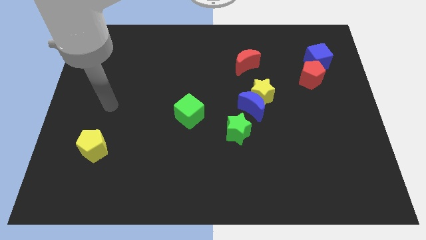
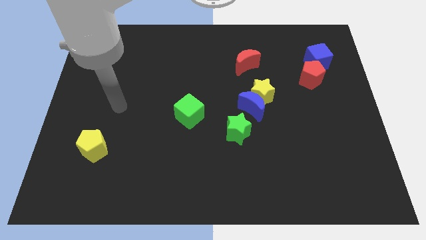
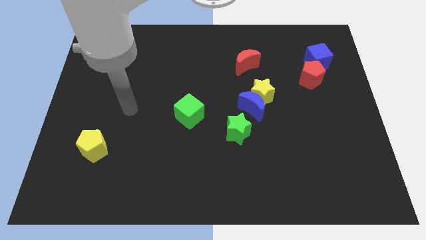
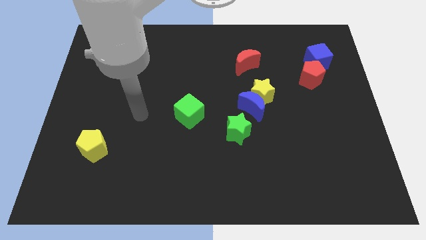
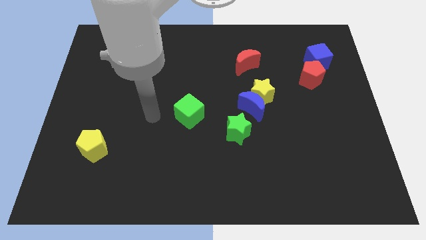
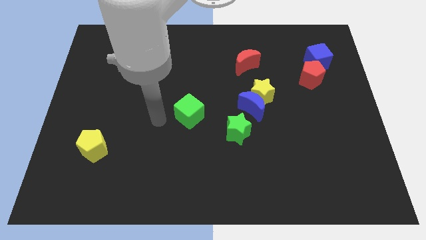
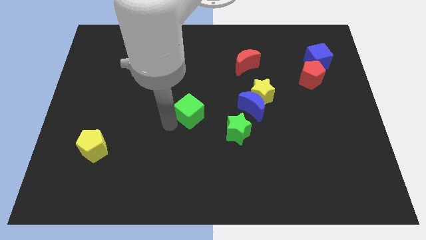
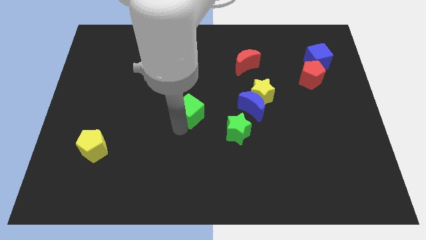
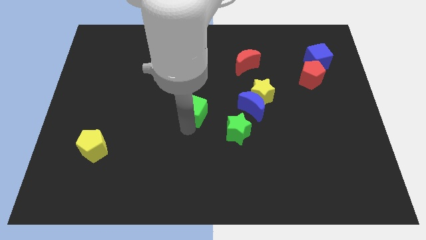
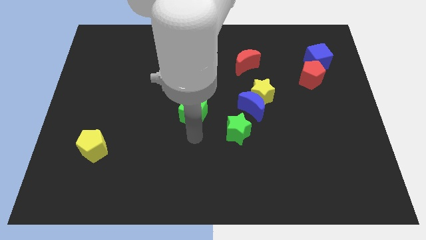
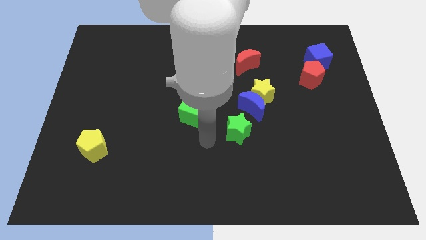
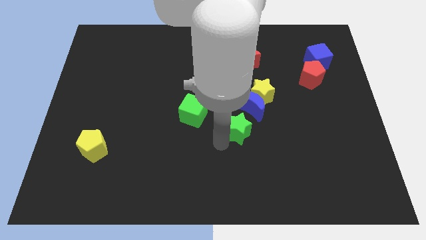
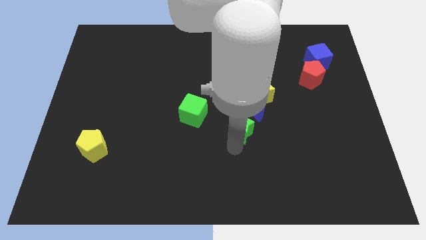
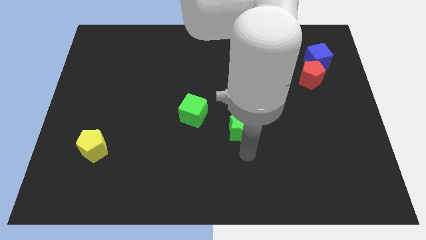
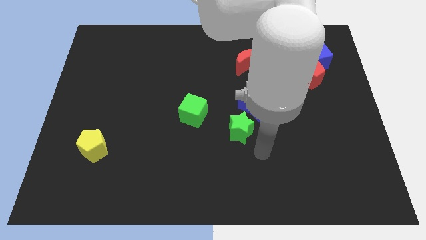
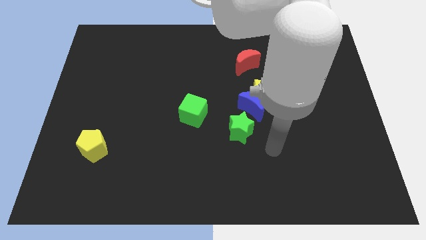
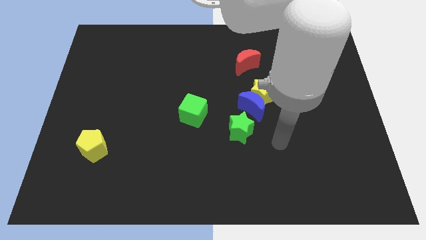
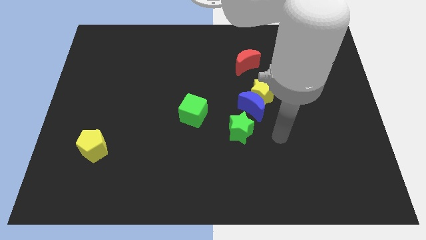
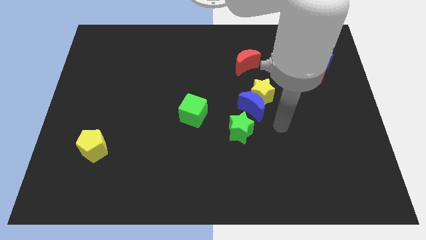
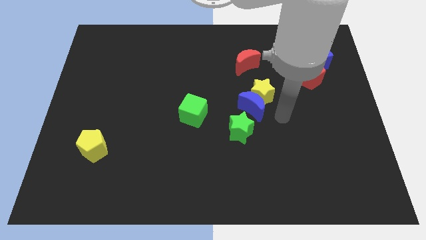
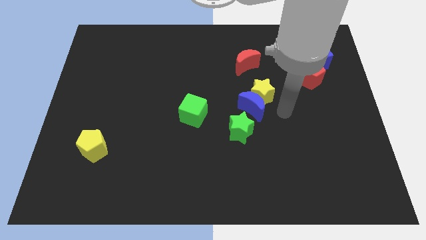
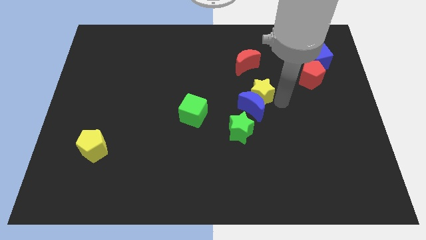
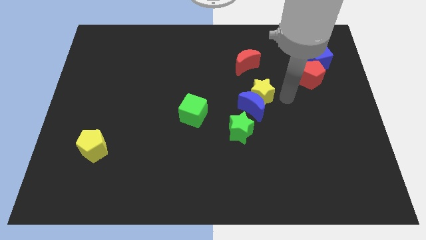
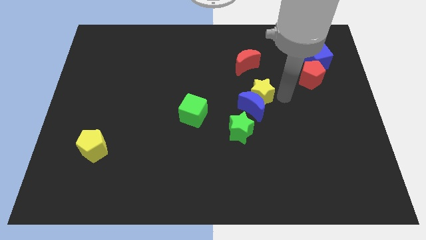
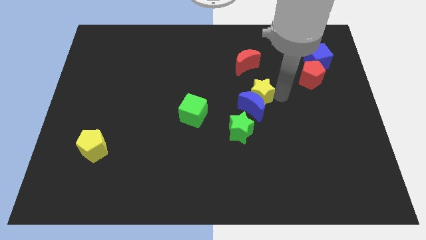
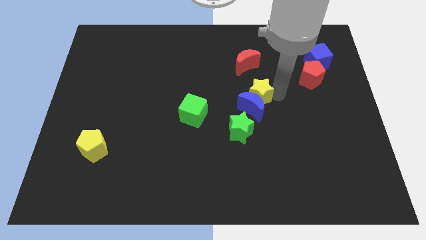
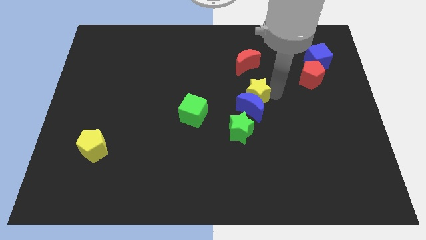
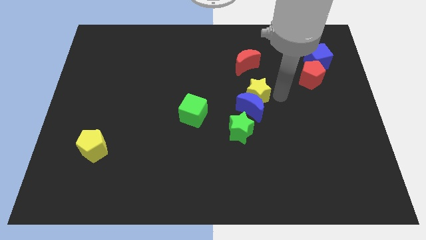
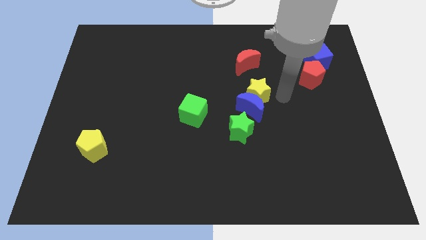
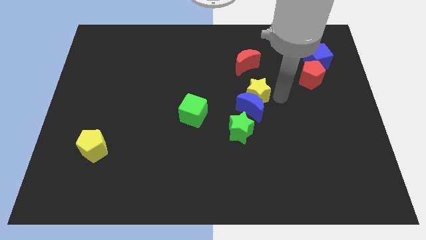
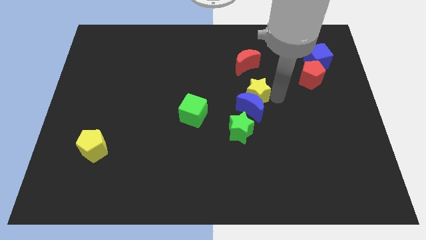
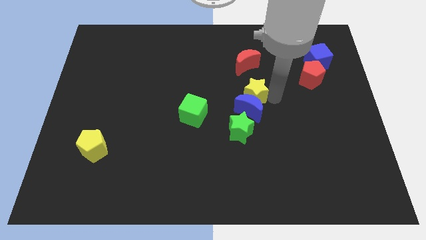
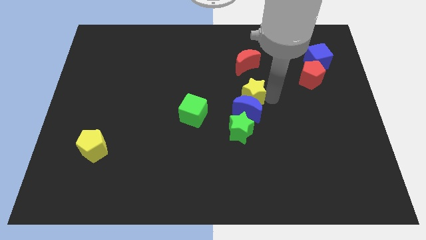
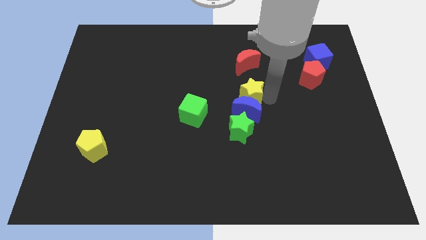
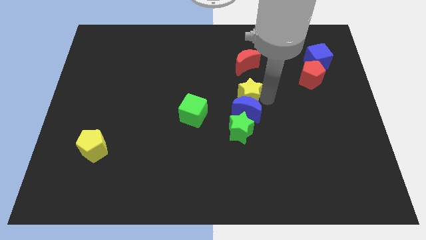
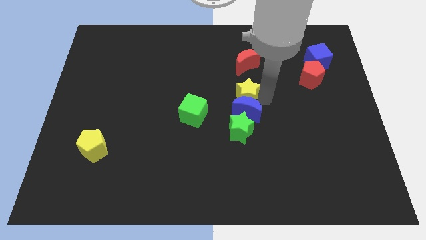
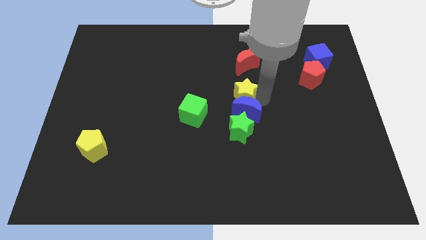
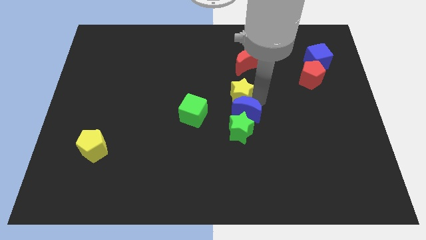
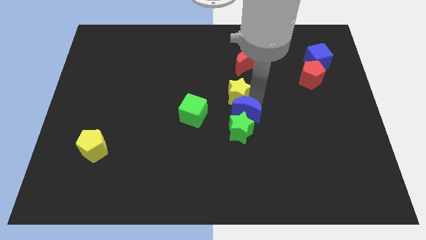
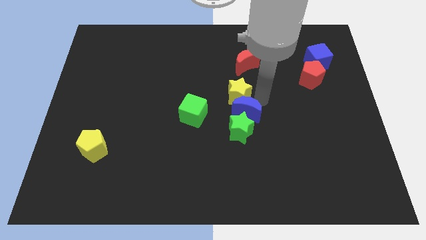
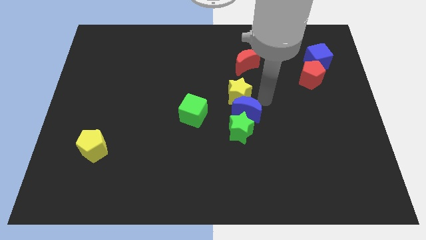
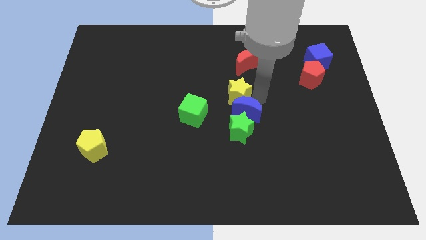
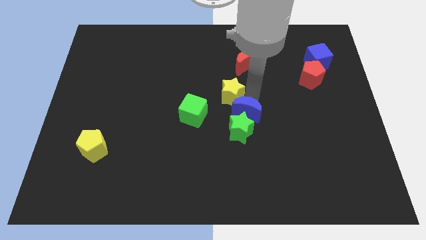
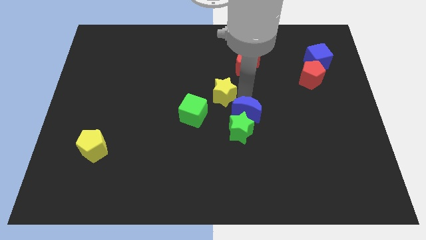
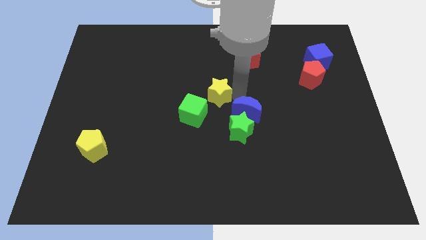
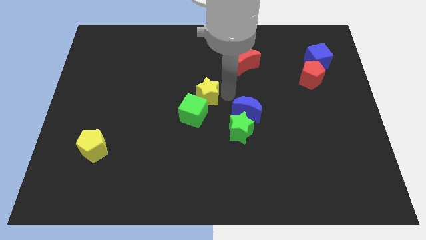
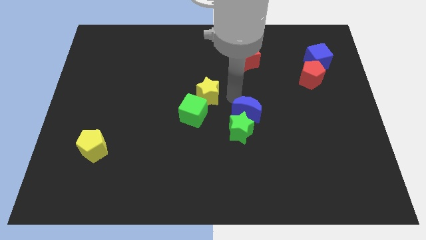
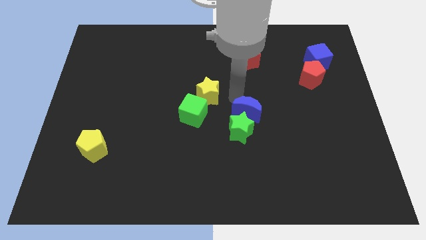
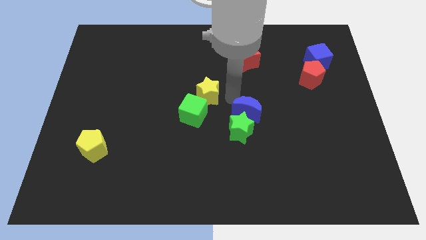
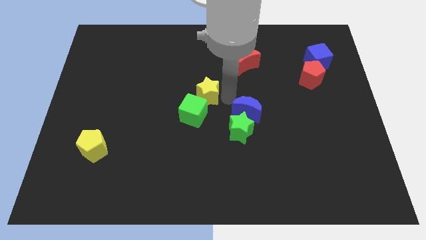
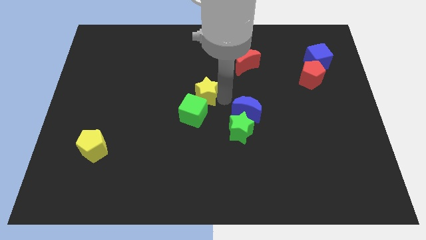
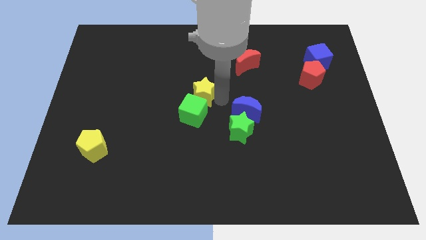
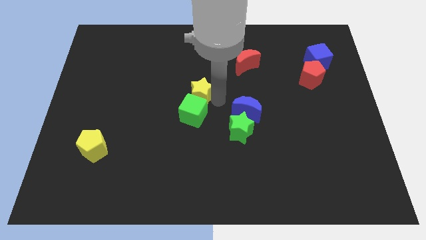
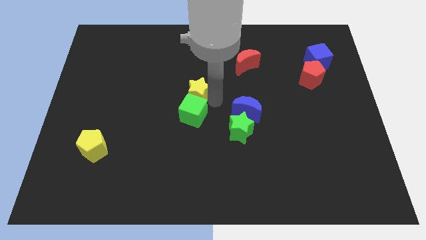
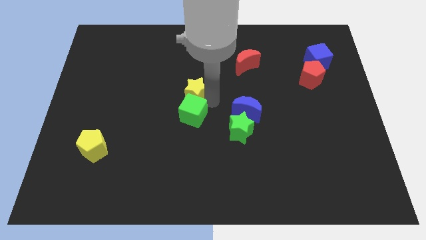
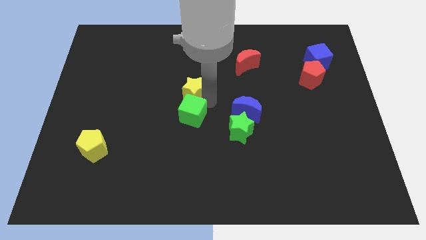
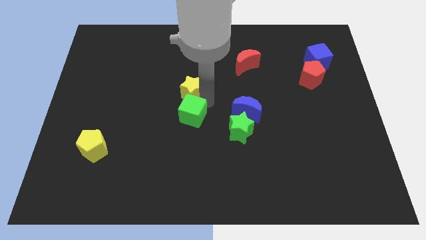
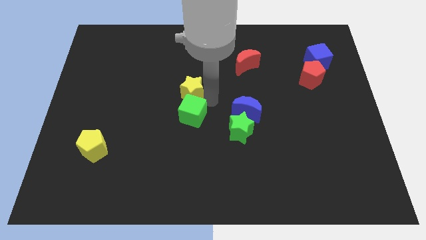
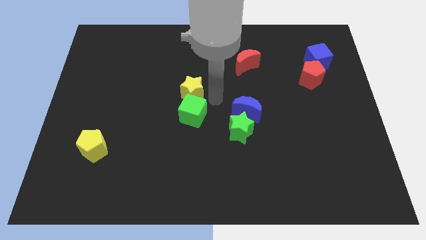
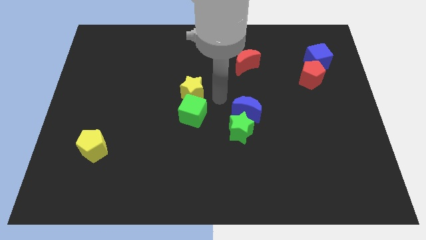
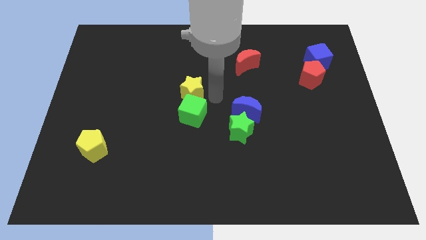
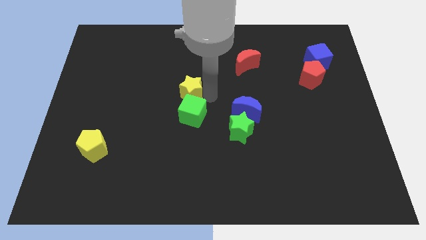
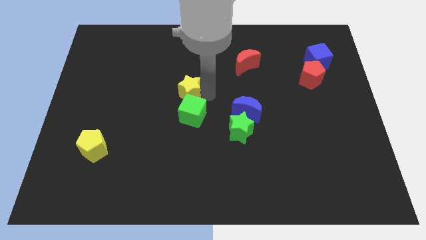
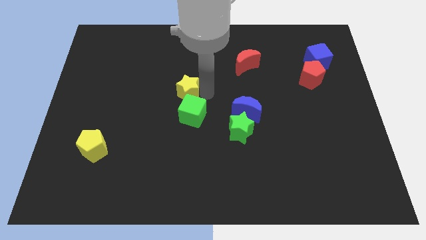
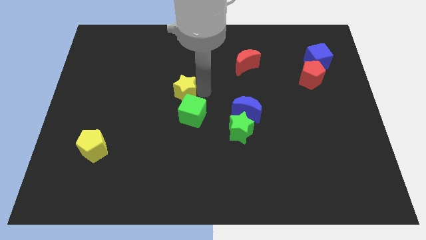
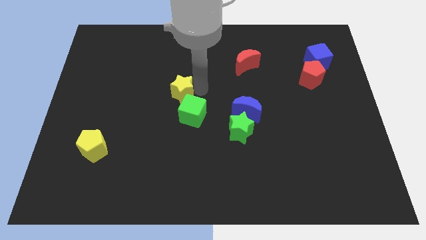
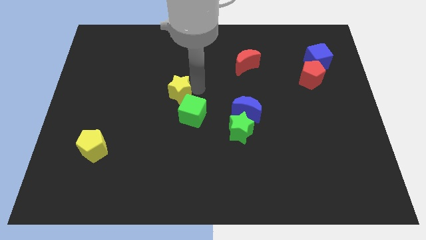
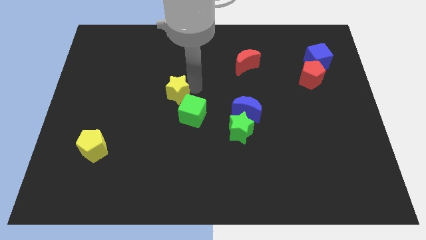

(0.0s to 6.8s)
push the yellow star to the left

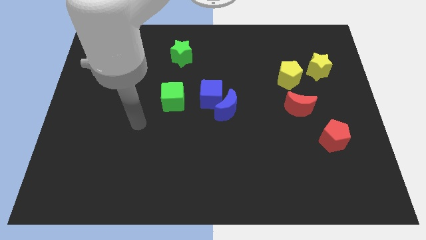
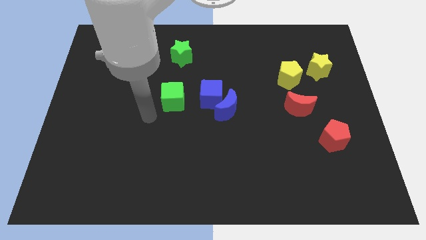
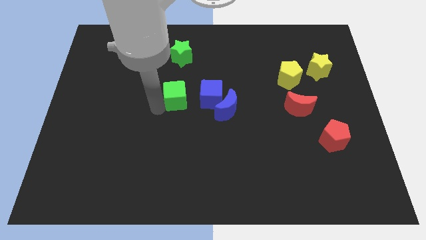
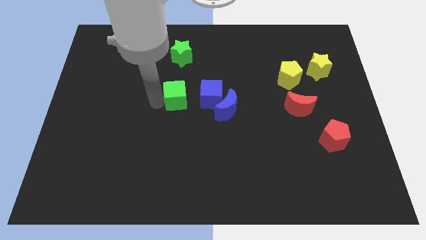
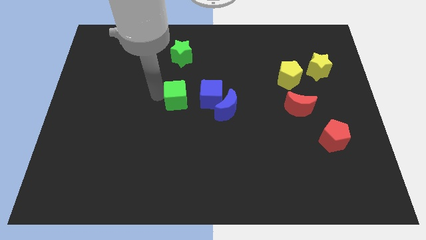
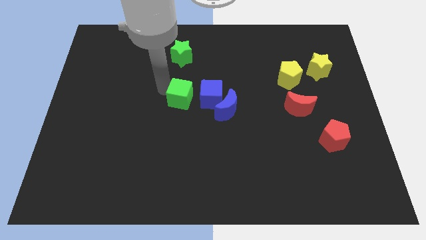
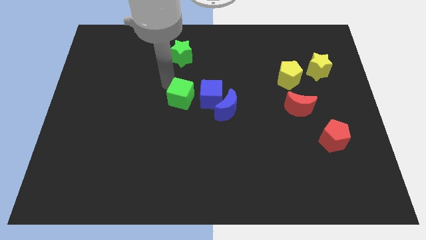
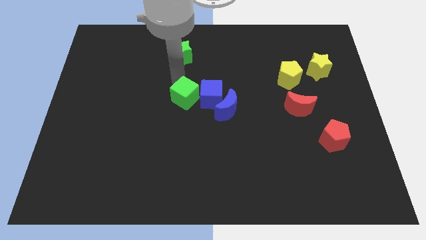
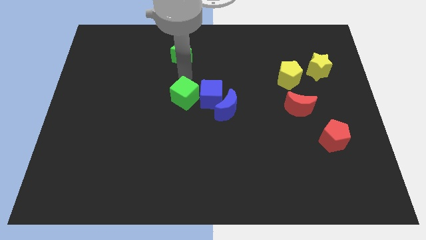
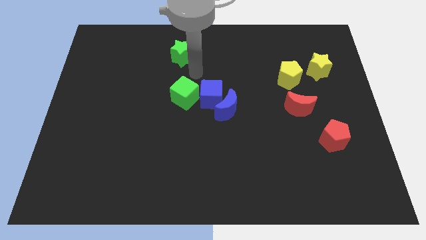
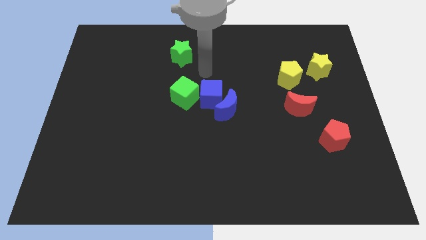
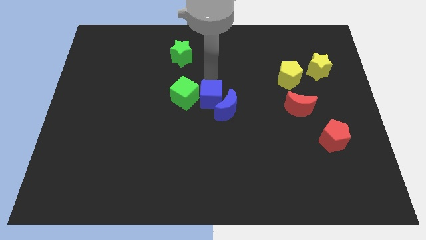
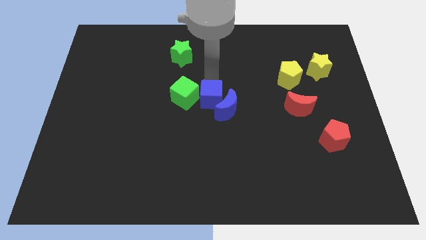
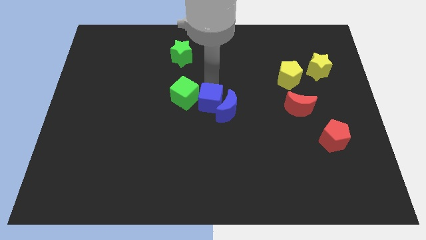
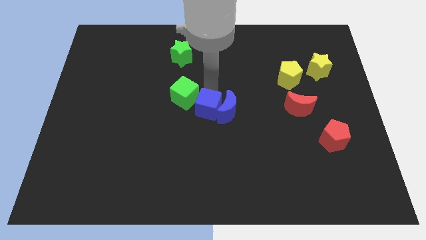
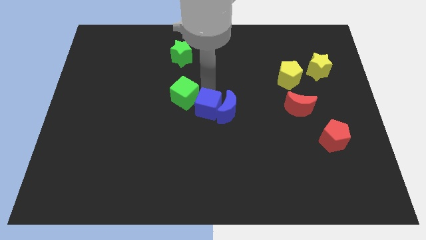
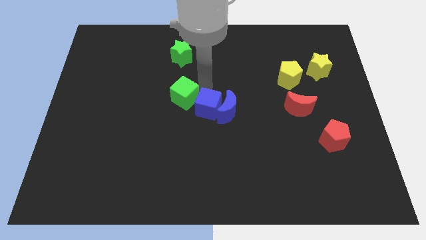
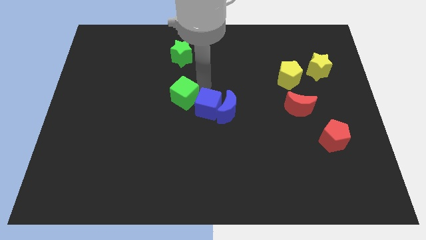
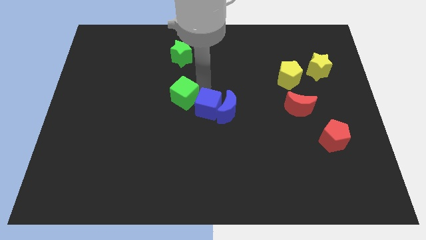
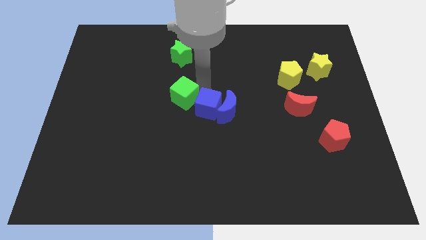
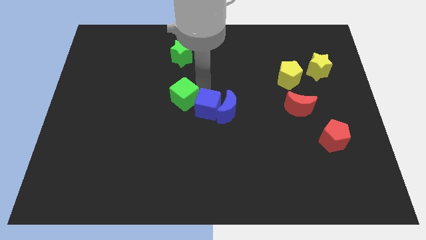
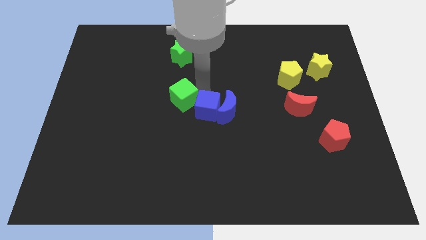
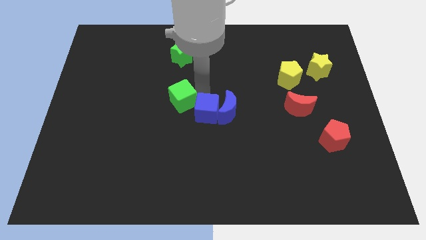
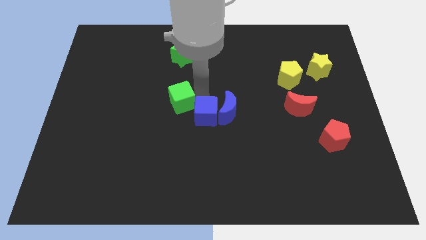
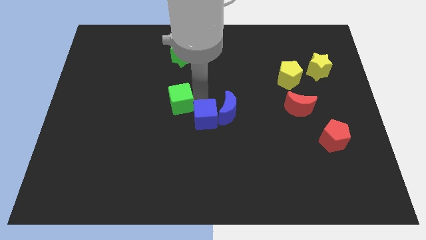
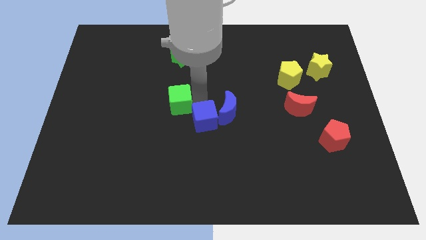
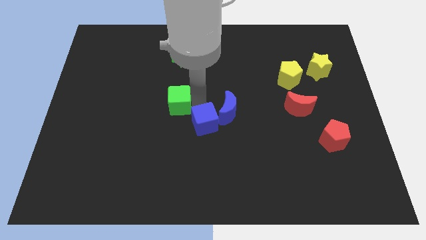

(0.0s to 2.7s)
move the blue cube a little downwards
